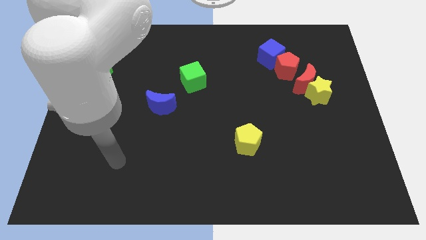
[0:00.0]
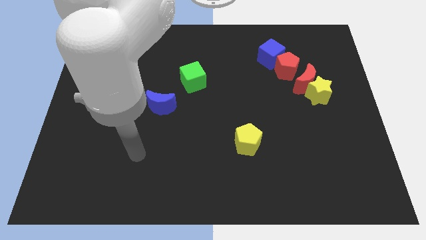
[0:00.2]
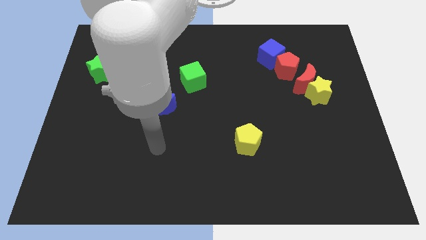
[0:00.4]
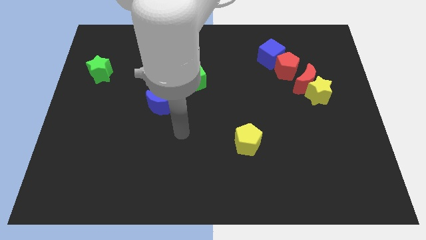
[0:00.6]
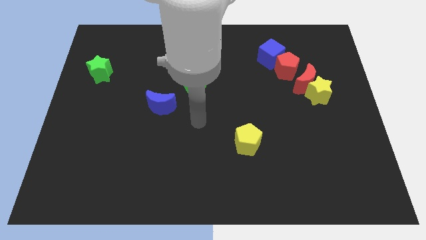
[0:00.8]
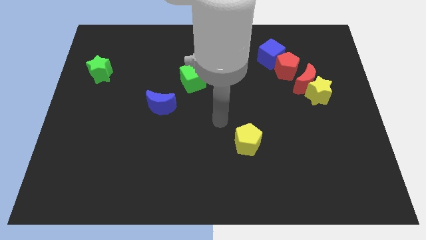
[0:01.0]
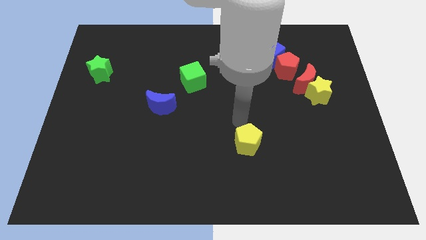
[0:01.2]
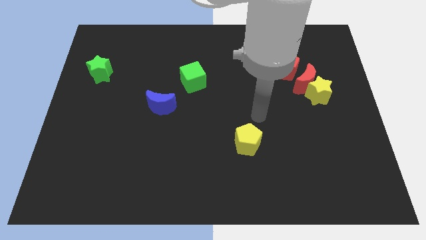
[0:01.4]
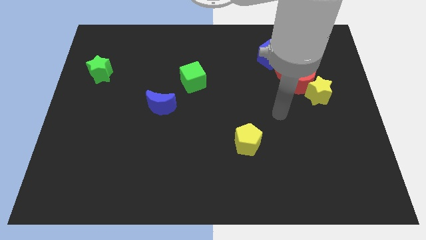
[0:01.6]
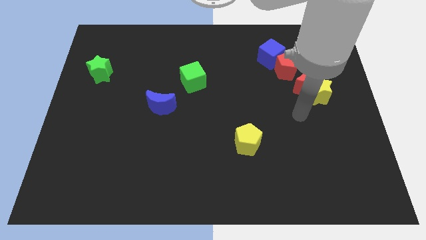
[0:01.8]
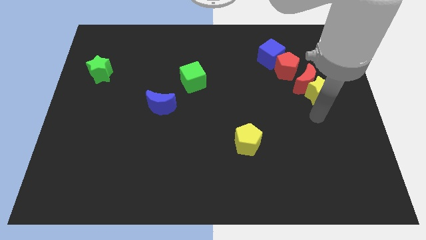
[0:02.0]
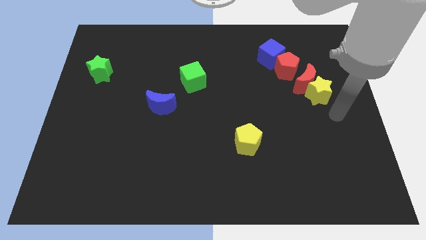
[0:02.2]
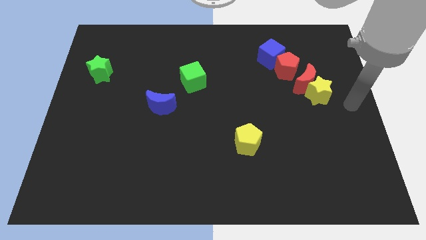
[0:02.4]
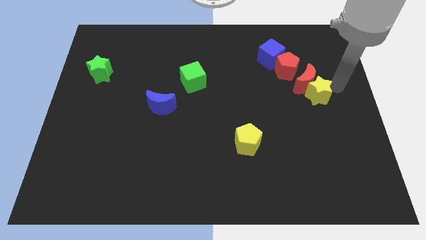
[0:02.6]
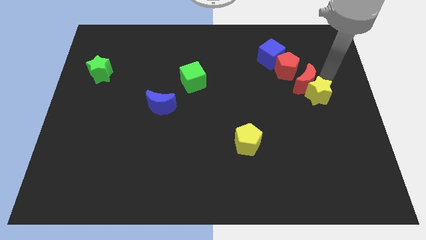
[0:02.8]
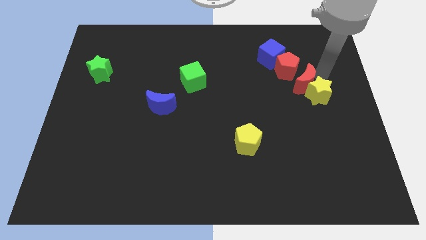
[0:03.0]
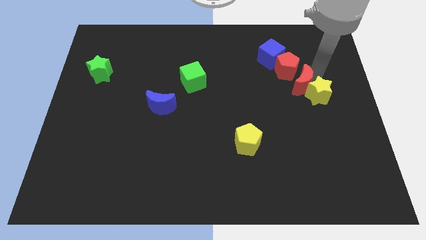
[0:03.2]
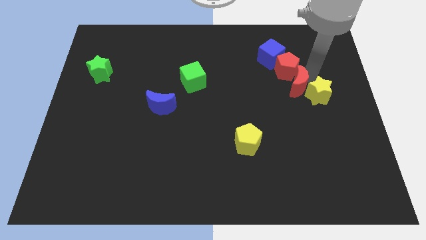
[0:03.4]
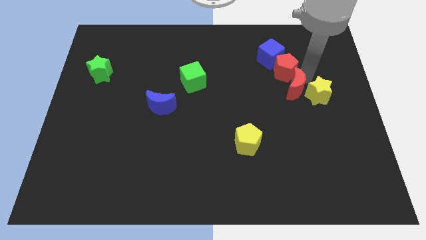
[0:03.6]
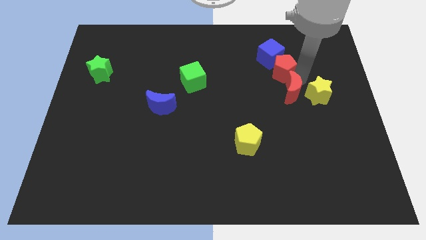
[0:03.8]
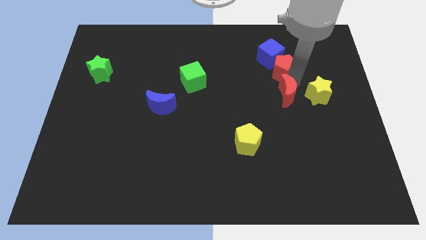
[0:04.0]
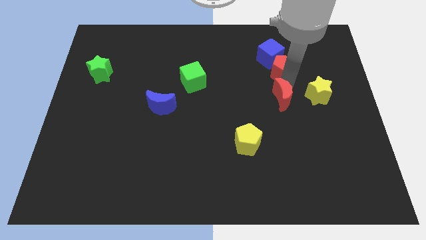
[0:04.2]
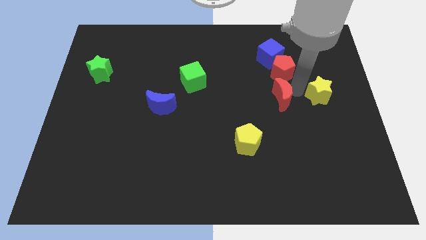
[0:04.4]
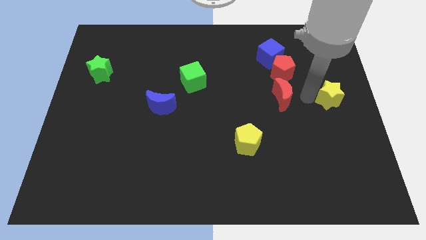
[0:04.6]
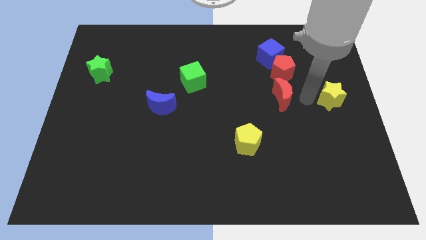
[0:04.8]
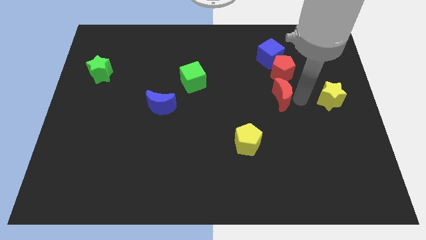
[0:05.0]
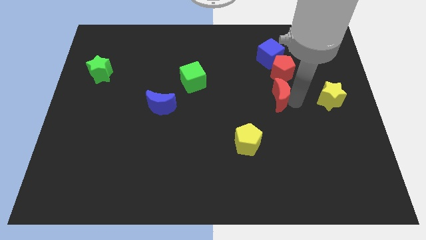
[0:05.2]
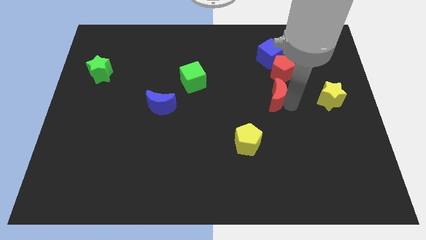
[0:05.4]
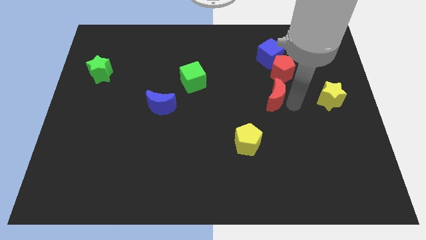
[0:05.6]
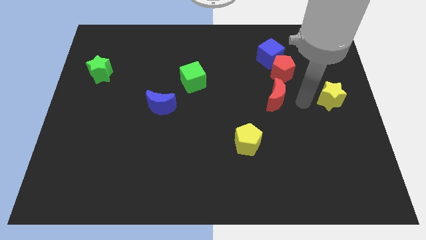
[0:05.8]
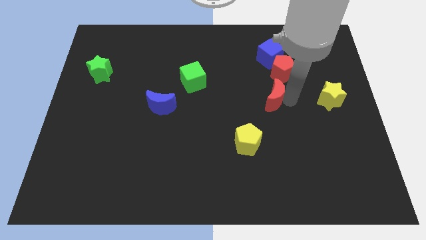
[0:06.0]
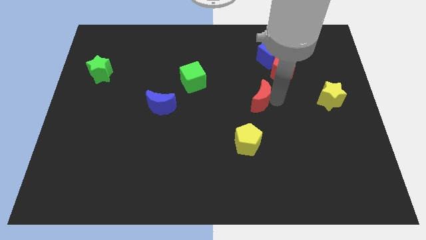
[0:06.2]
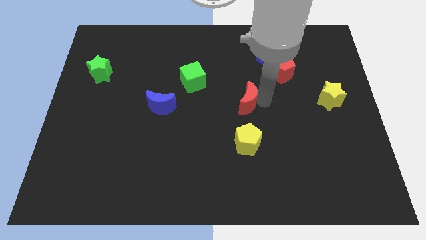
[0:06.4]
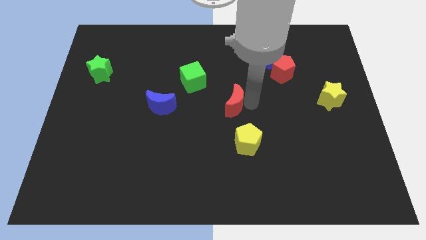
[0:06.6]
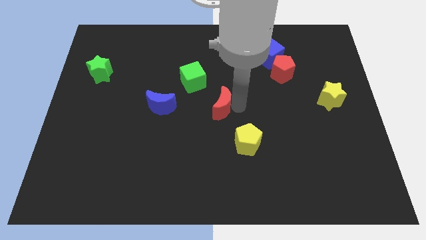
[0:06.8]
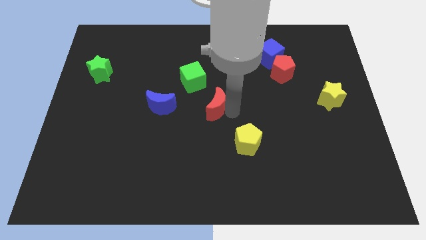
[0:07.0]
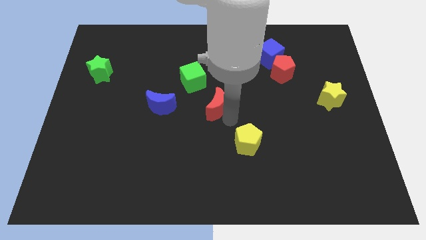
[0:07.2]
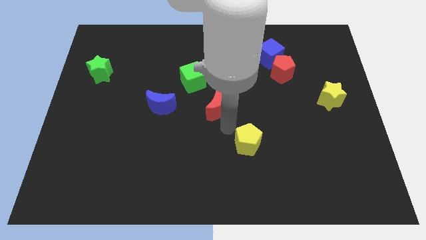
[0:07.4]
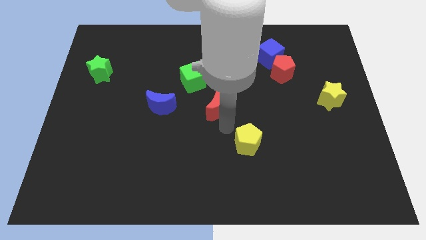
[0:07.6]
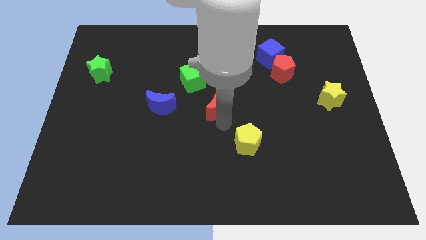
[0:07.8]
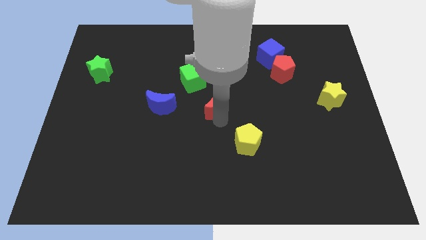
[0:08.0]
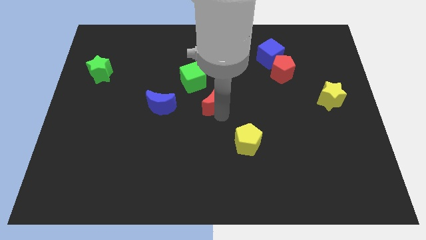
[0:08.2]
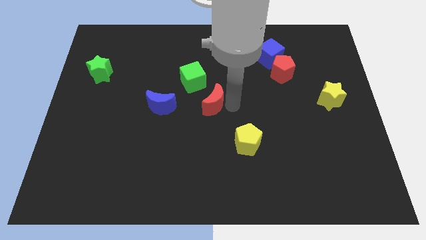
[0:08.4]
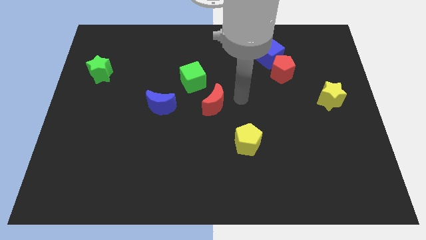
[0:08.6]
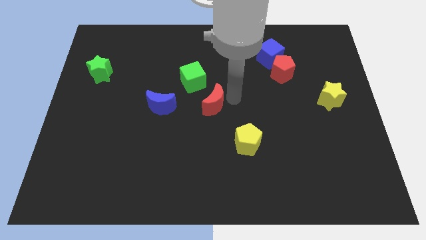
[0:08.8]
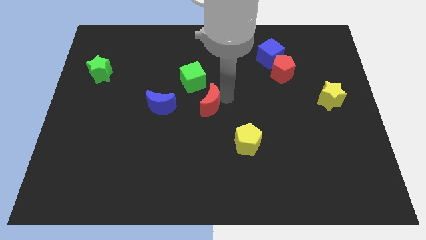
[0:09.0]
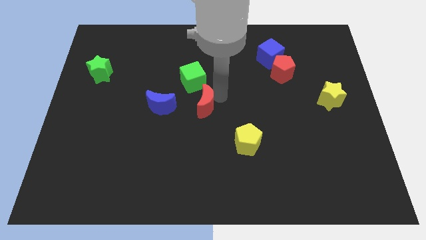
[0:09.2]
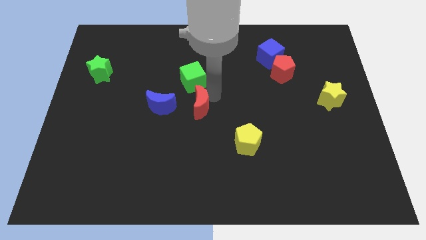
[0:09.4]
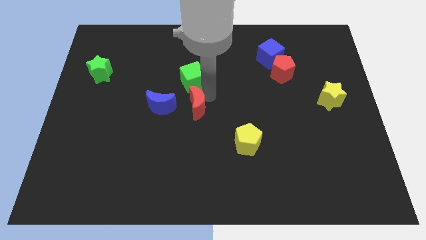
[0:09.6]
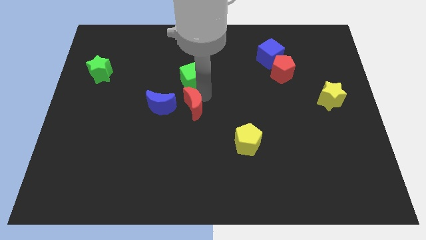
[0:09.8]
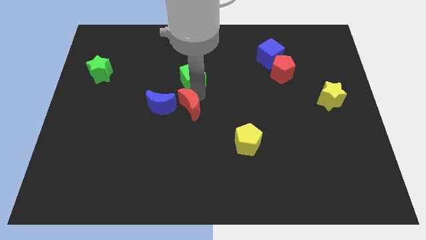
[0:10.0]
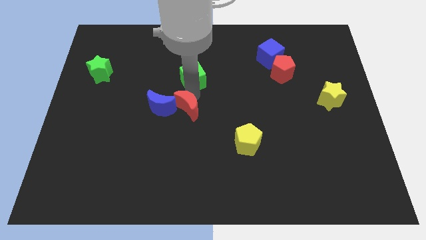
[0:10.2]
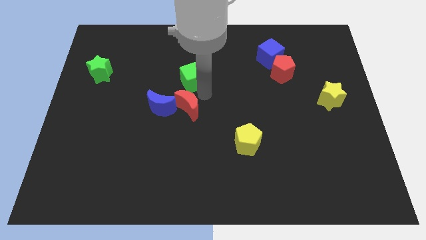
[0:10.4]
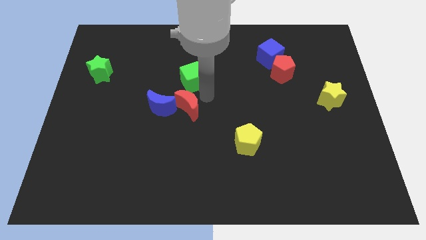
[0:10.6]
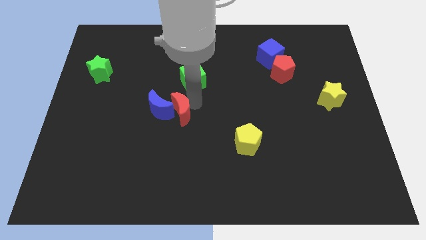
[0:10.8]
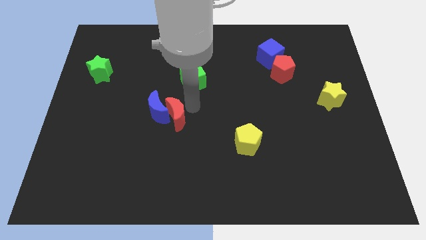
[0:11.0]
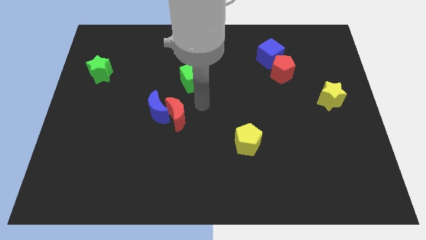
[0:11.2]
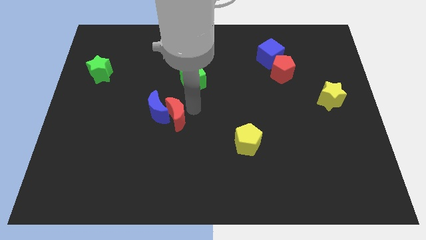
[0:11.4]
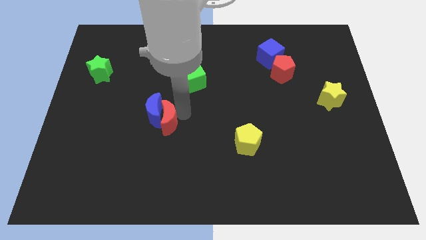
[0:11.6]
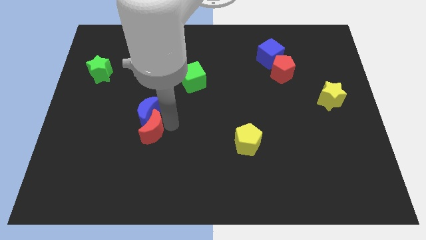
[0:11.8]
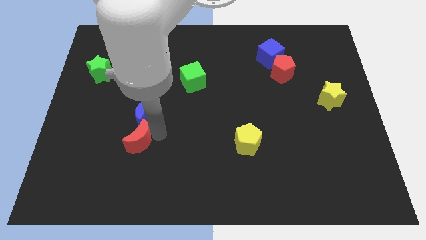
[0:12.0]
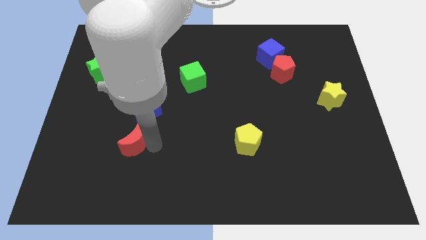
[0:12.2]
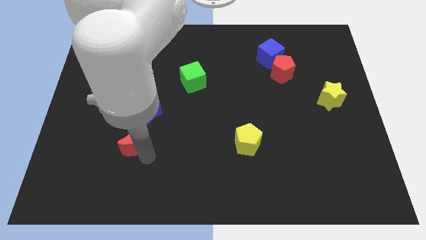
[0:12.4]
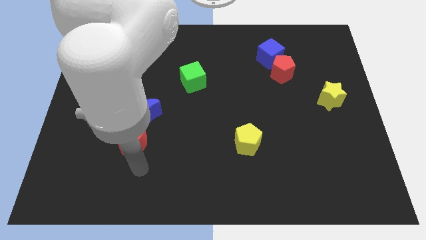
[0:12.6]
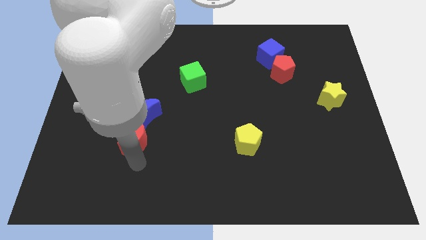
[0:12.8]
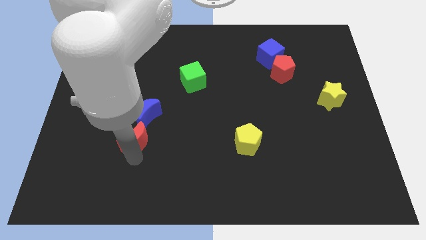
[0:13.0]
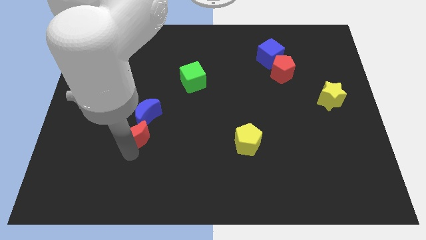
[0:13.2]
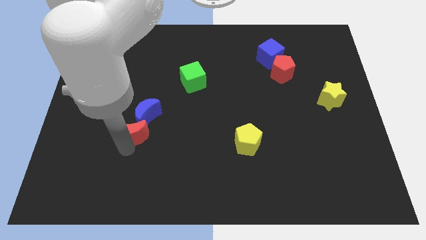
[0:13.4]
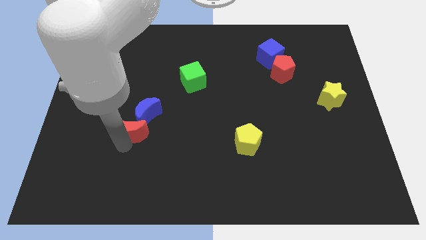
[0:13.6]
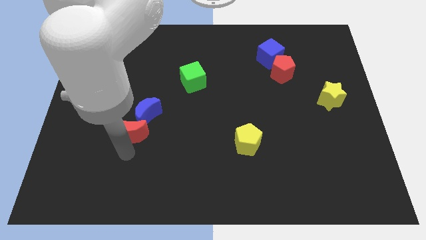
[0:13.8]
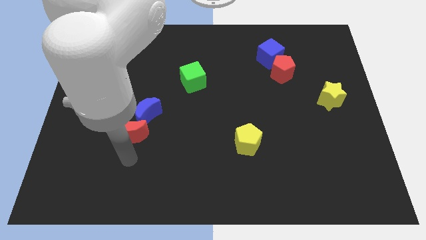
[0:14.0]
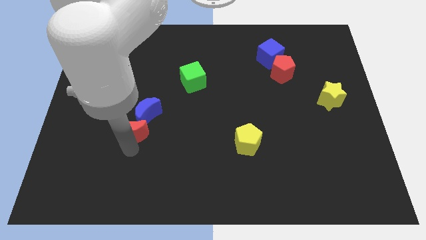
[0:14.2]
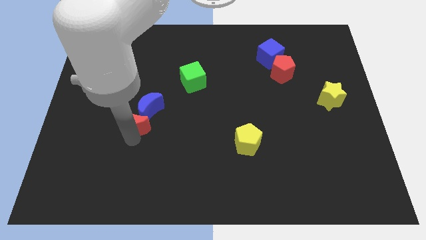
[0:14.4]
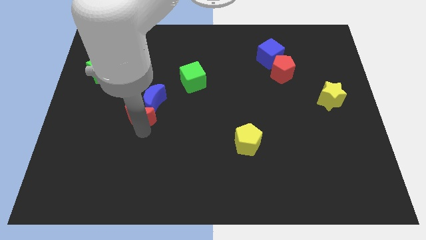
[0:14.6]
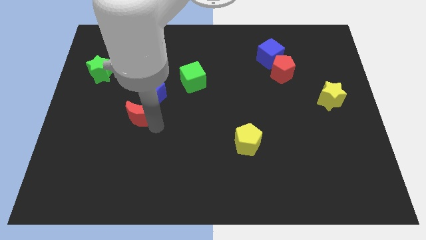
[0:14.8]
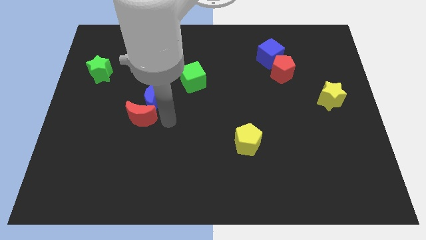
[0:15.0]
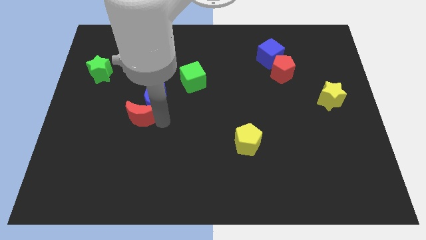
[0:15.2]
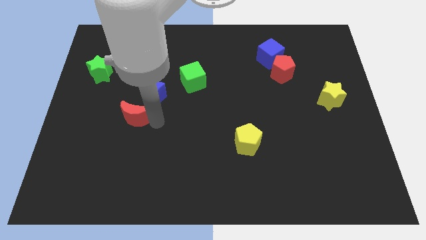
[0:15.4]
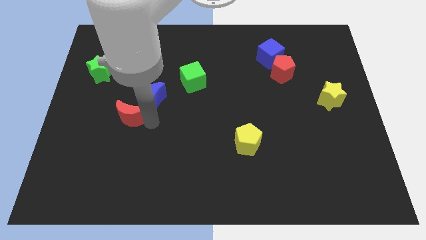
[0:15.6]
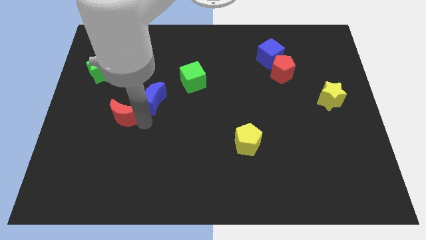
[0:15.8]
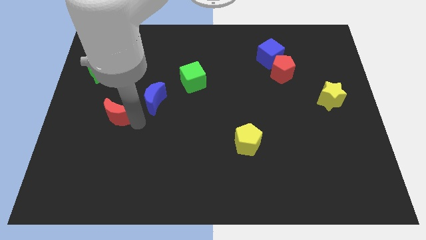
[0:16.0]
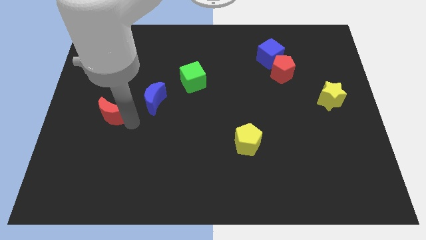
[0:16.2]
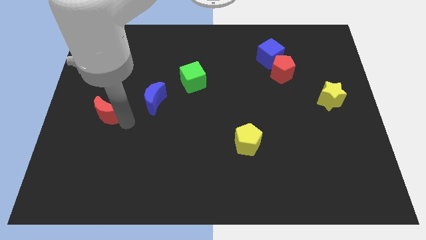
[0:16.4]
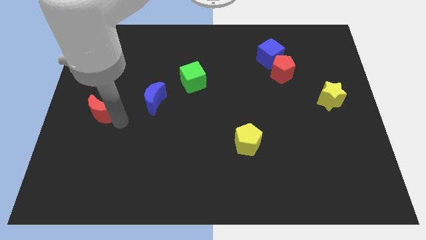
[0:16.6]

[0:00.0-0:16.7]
push the red moon to the left side of the board
